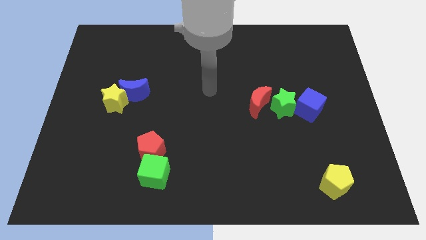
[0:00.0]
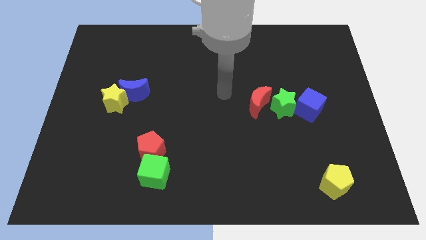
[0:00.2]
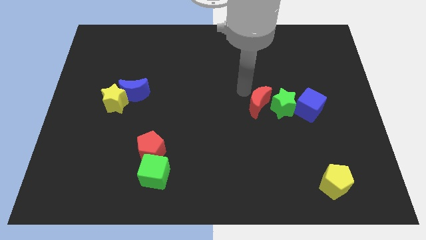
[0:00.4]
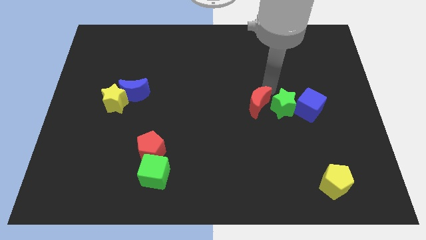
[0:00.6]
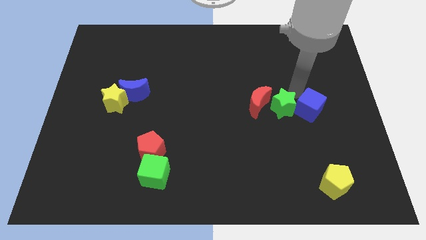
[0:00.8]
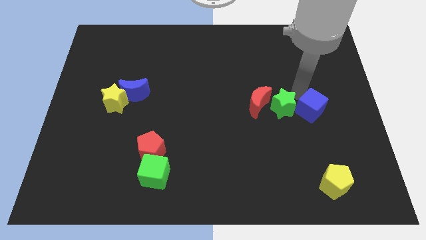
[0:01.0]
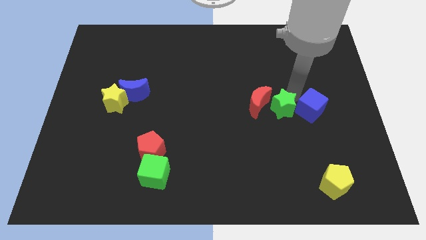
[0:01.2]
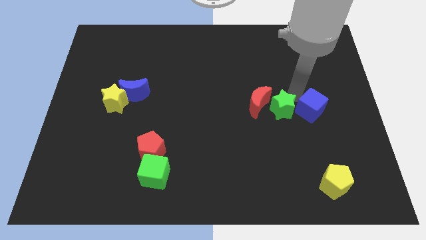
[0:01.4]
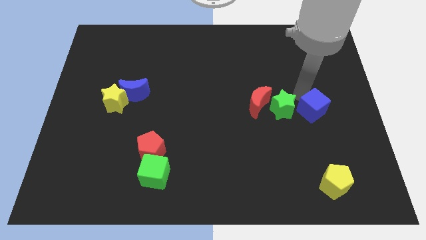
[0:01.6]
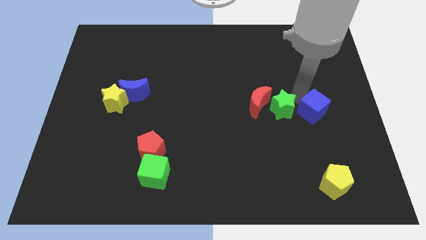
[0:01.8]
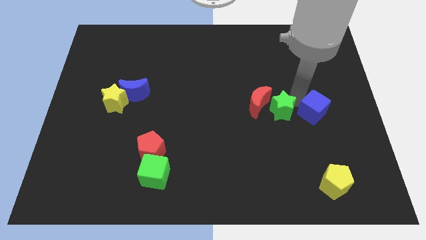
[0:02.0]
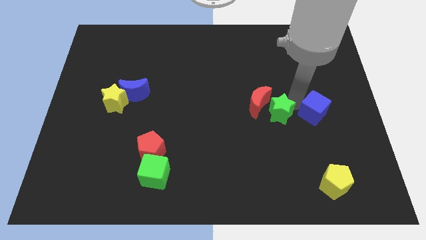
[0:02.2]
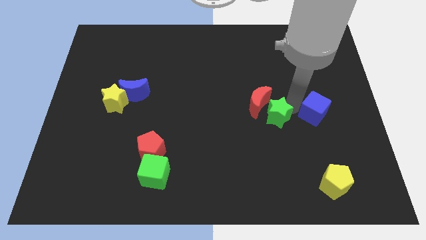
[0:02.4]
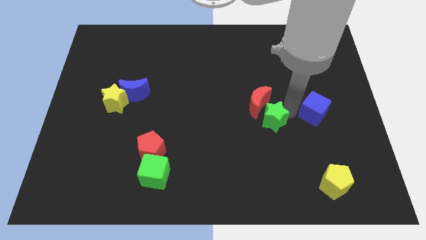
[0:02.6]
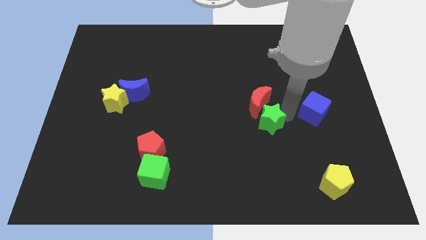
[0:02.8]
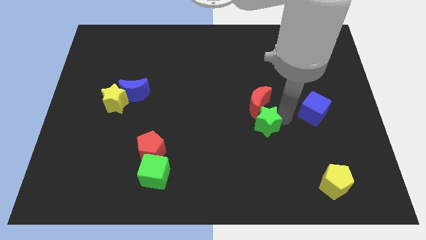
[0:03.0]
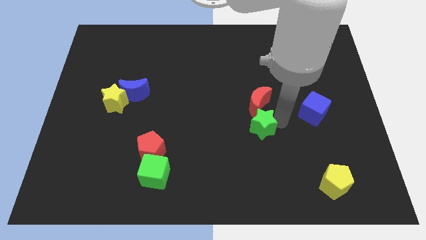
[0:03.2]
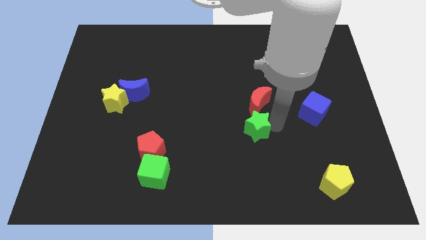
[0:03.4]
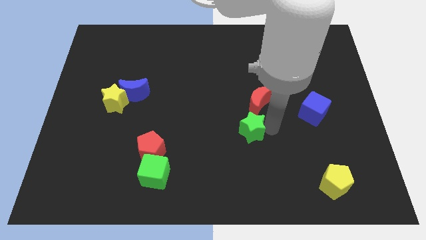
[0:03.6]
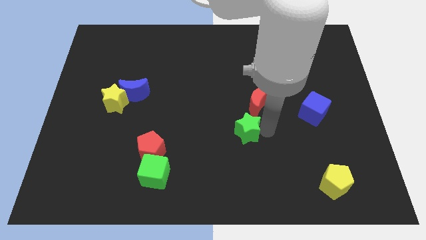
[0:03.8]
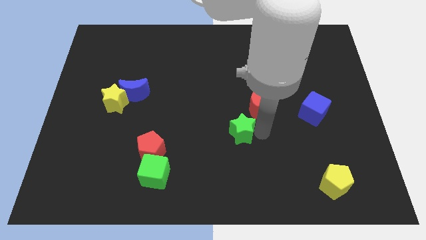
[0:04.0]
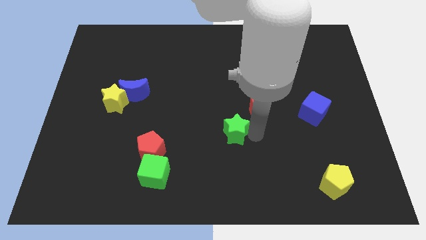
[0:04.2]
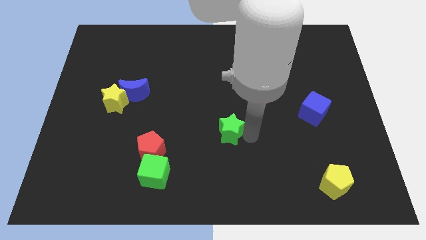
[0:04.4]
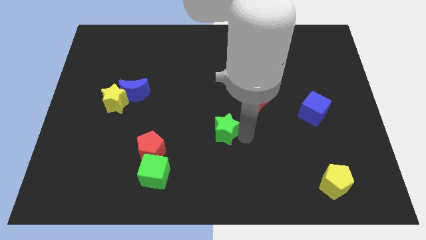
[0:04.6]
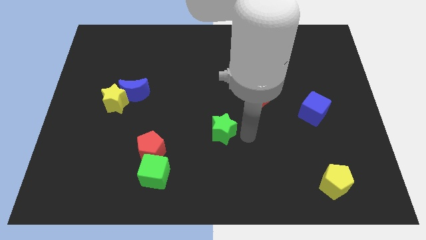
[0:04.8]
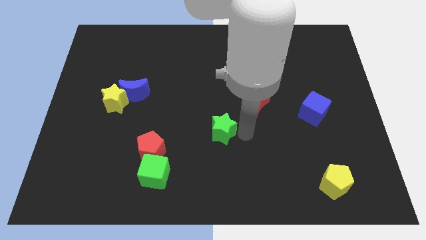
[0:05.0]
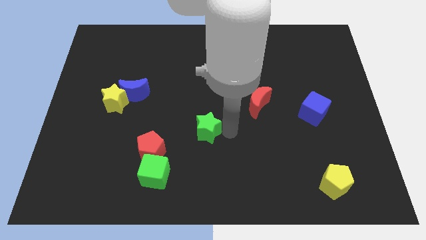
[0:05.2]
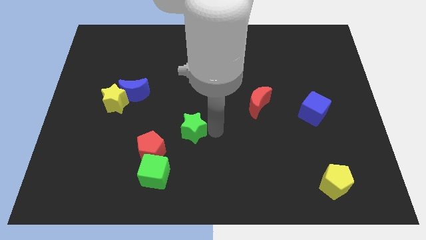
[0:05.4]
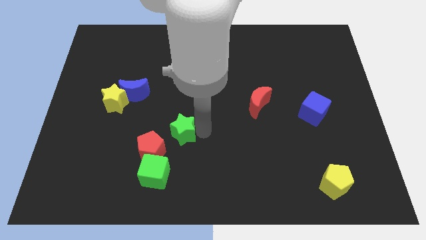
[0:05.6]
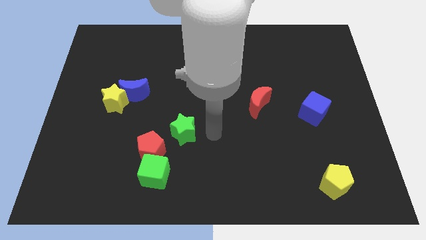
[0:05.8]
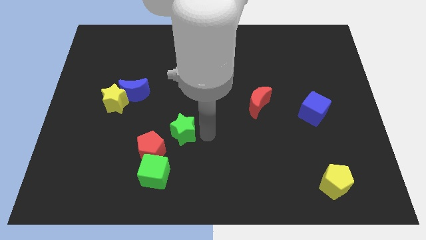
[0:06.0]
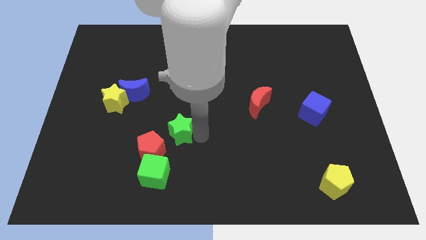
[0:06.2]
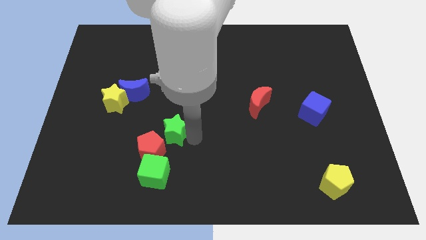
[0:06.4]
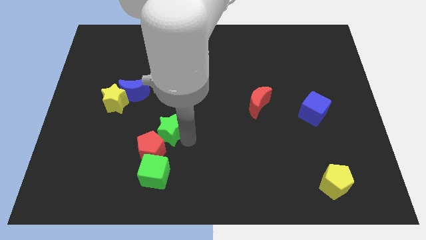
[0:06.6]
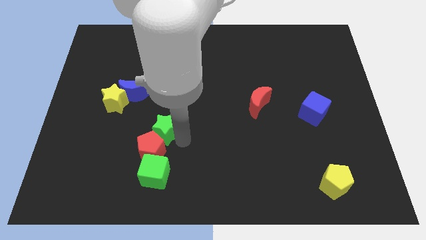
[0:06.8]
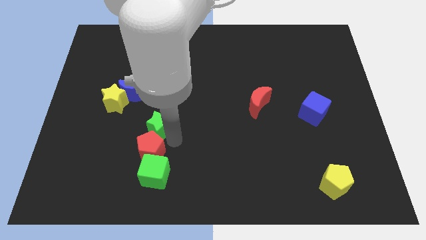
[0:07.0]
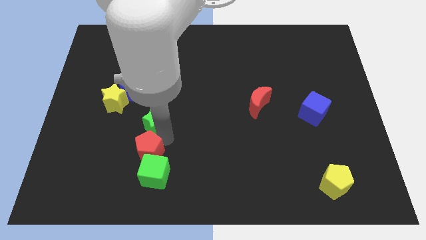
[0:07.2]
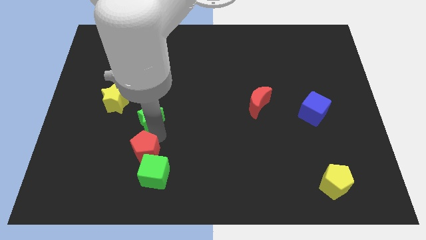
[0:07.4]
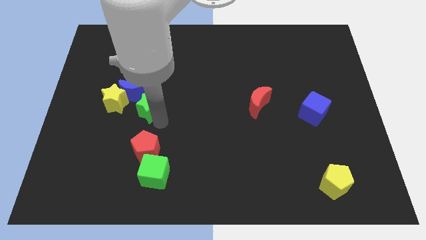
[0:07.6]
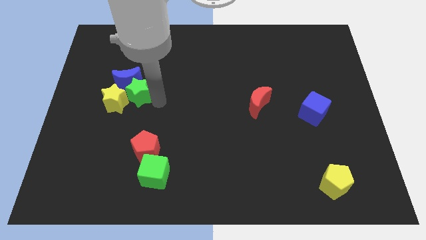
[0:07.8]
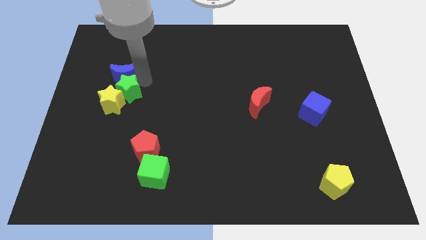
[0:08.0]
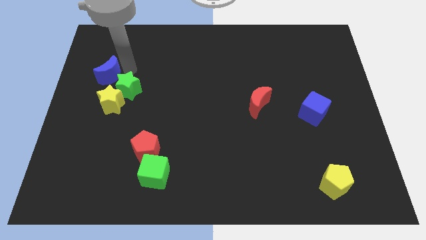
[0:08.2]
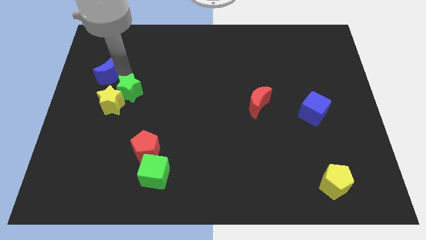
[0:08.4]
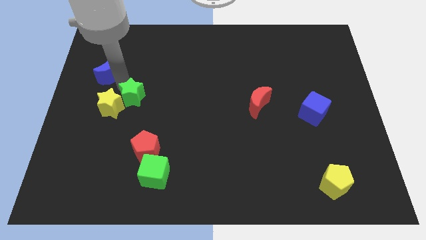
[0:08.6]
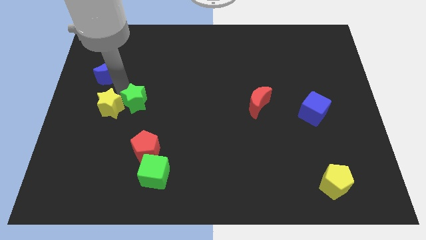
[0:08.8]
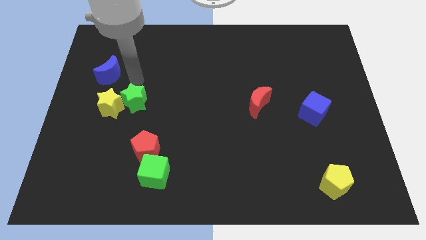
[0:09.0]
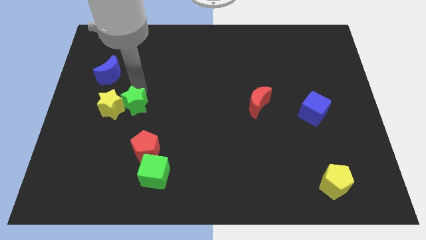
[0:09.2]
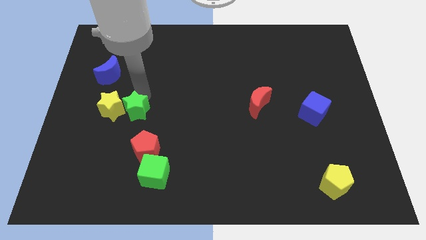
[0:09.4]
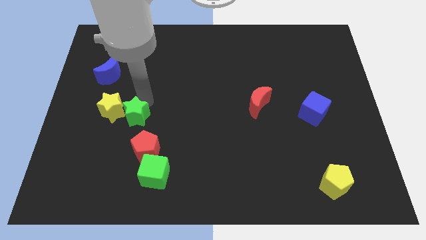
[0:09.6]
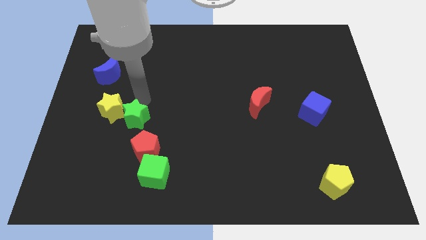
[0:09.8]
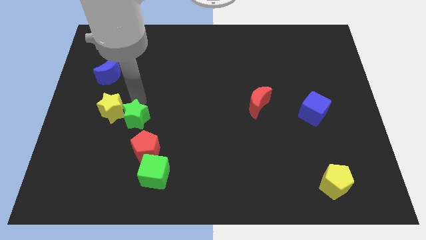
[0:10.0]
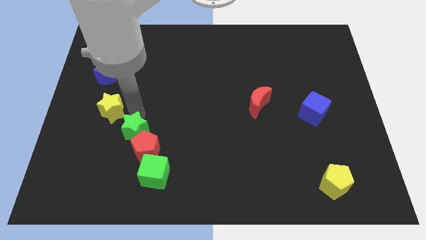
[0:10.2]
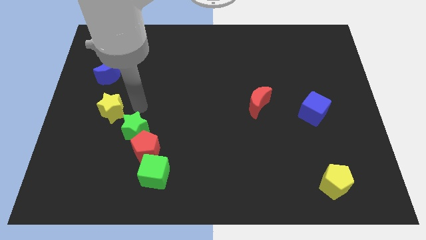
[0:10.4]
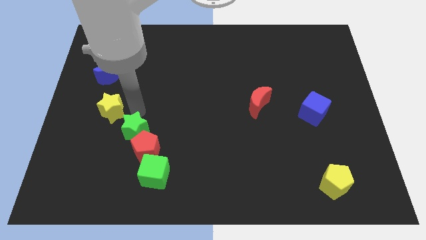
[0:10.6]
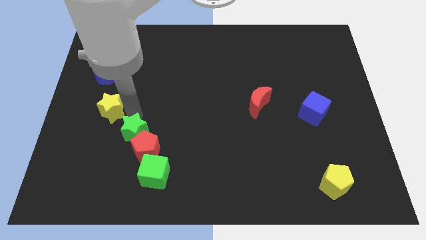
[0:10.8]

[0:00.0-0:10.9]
push the green star to the top left of the green cube

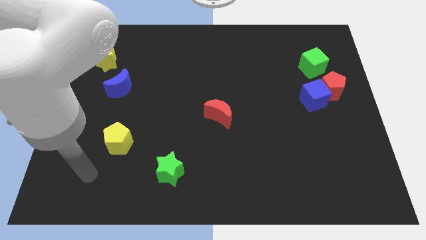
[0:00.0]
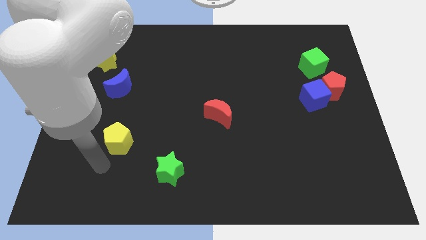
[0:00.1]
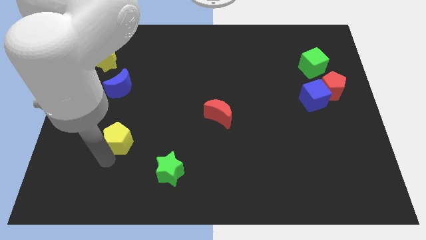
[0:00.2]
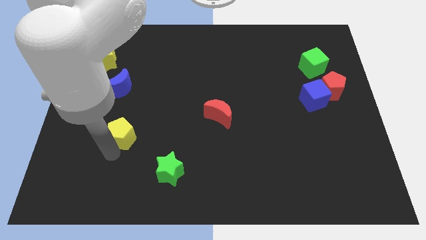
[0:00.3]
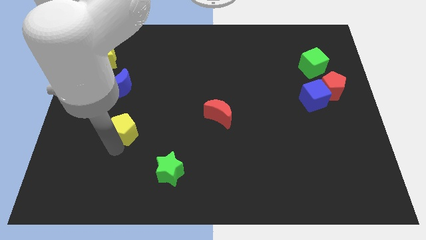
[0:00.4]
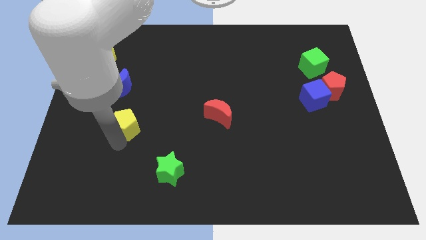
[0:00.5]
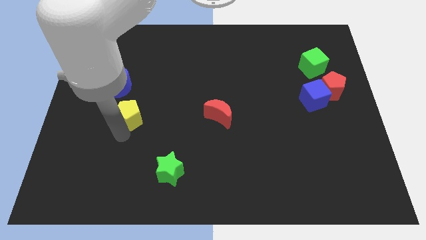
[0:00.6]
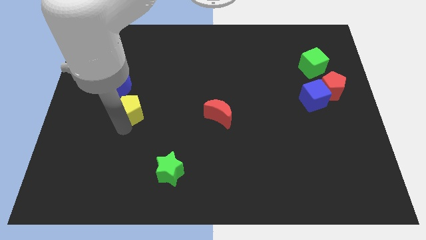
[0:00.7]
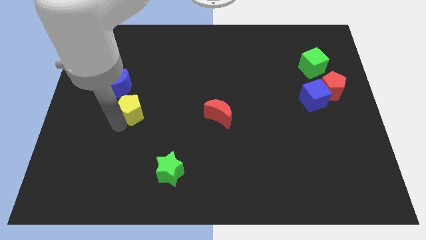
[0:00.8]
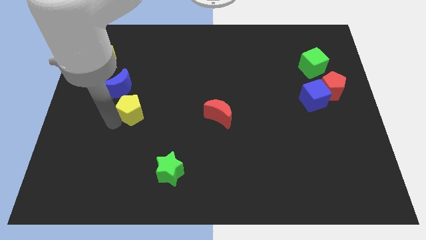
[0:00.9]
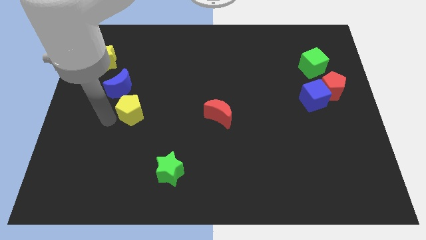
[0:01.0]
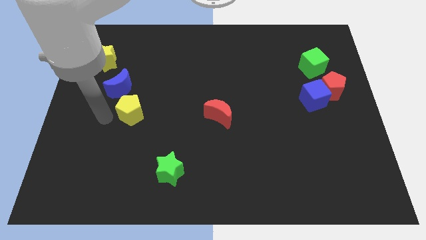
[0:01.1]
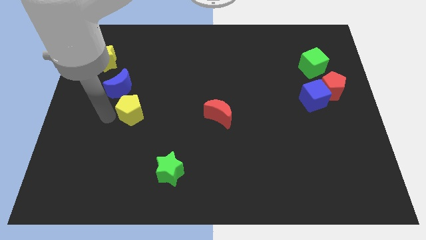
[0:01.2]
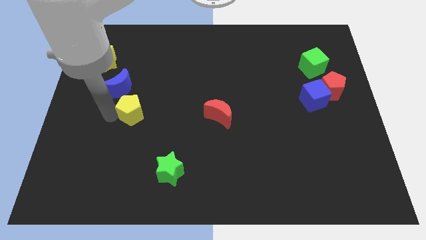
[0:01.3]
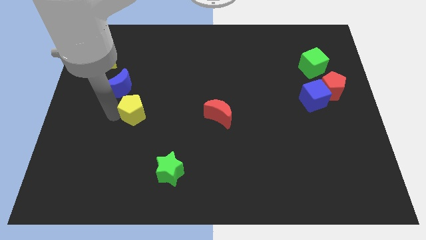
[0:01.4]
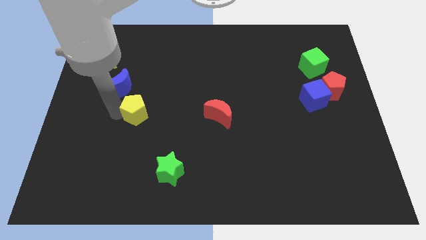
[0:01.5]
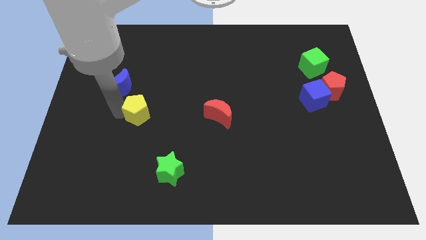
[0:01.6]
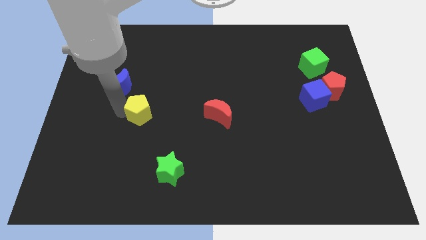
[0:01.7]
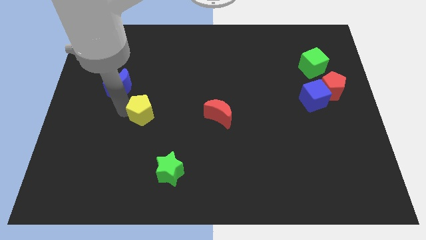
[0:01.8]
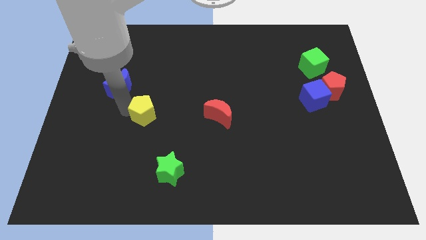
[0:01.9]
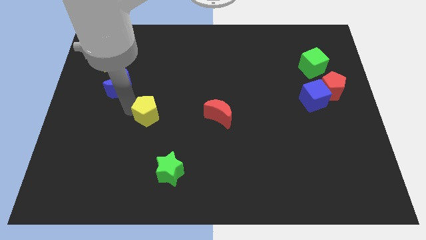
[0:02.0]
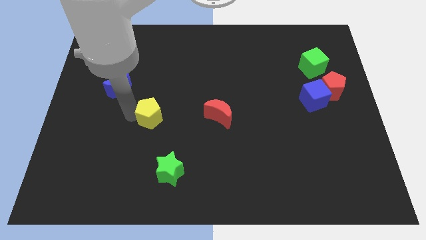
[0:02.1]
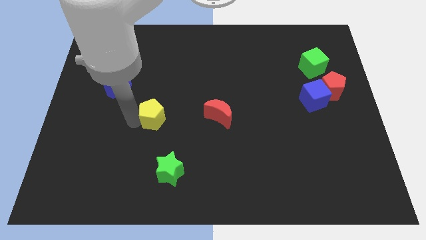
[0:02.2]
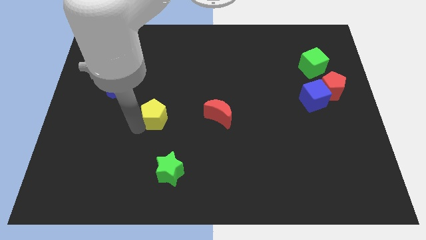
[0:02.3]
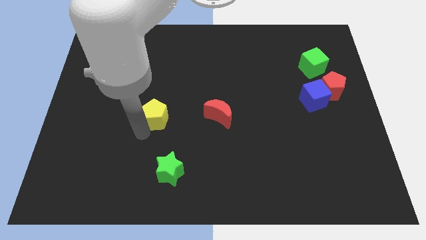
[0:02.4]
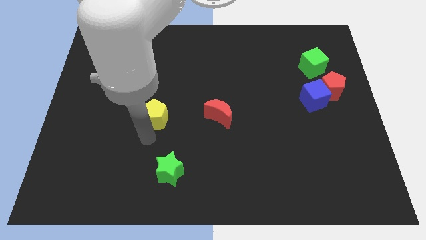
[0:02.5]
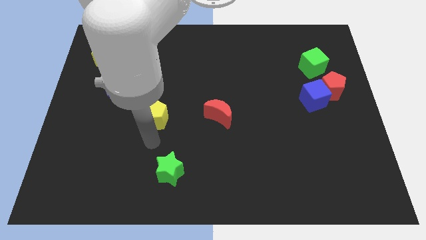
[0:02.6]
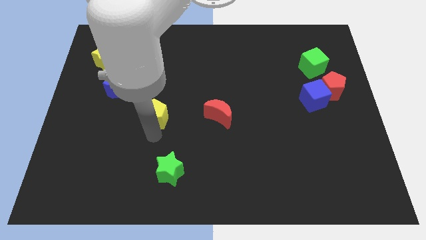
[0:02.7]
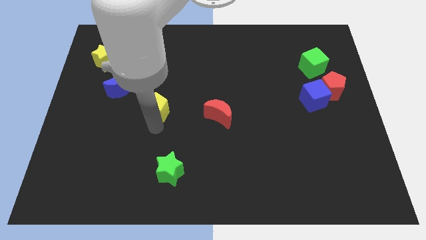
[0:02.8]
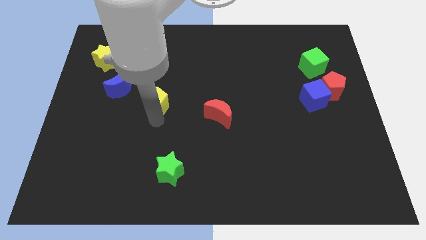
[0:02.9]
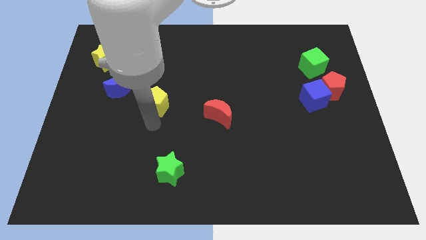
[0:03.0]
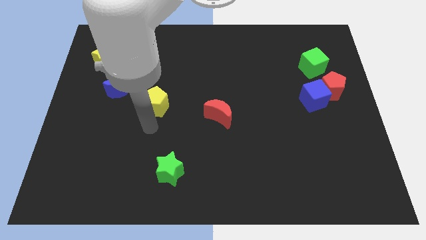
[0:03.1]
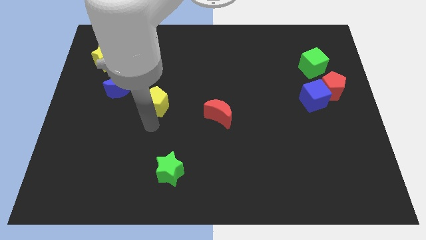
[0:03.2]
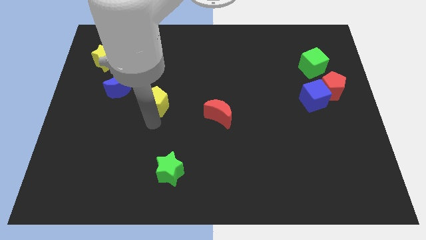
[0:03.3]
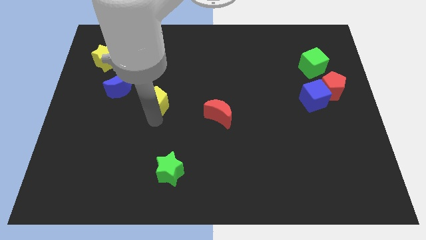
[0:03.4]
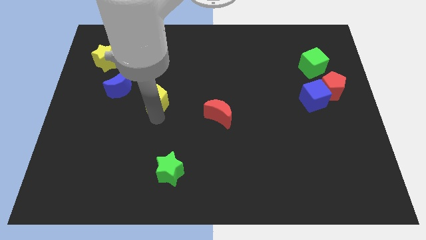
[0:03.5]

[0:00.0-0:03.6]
slide the yellow pentagon right of the blue moon
